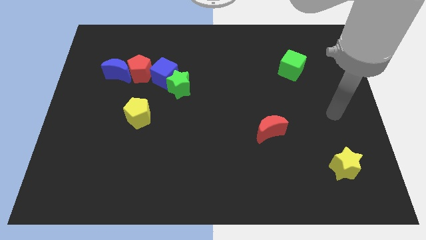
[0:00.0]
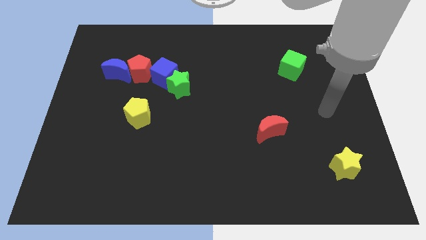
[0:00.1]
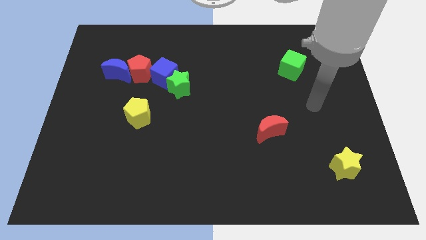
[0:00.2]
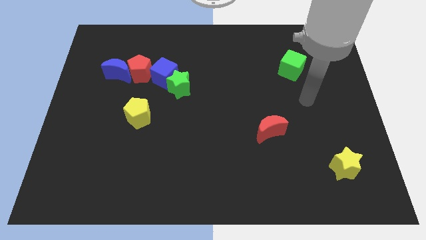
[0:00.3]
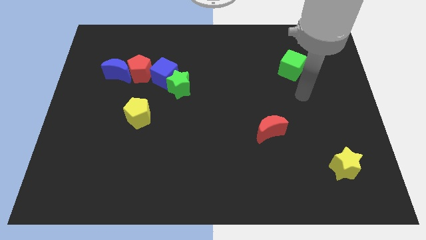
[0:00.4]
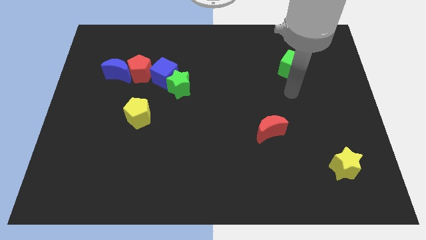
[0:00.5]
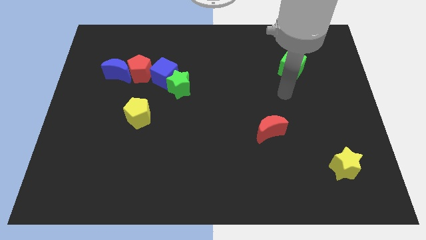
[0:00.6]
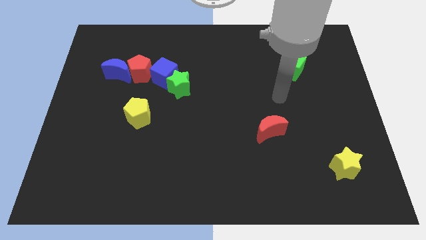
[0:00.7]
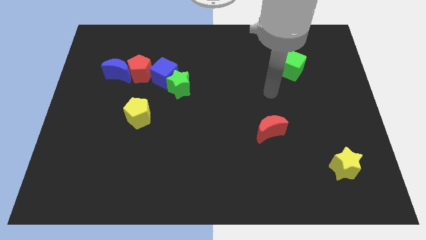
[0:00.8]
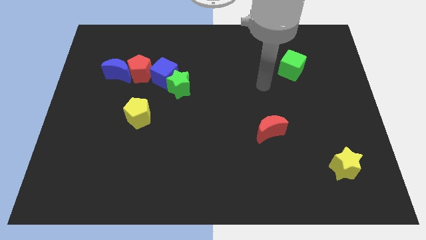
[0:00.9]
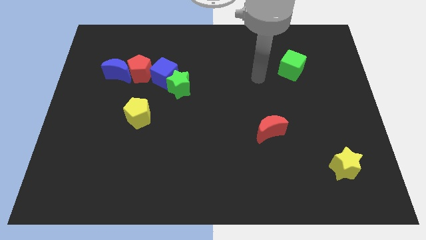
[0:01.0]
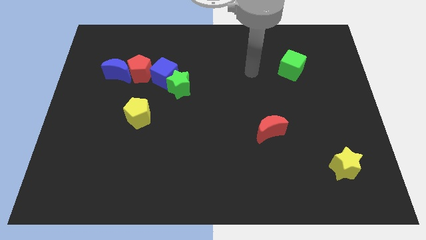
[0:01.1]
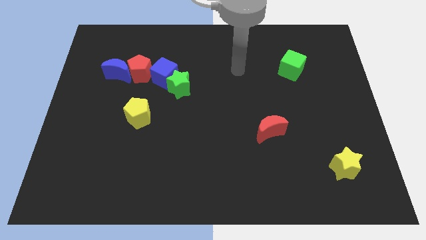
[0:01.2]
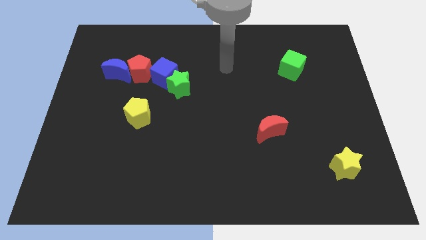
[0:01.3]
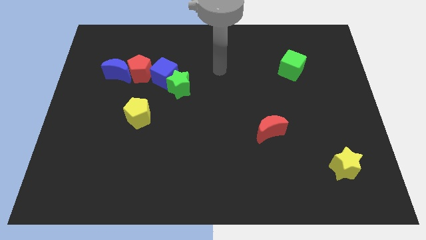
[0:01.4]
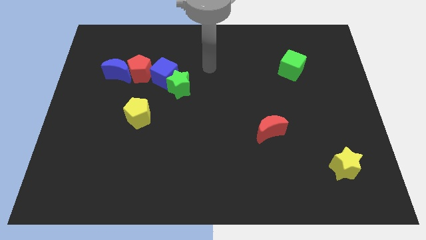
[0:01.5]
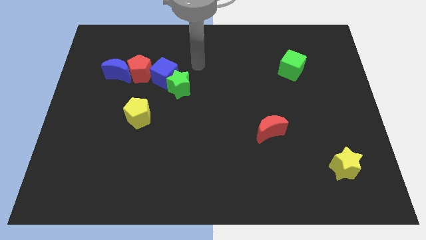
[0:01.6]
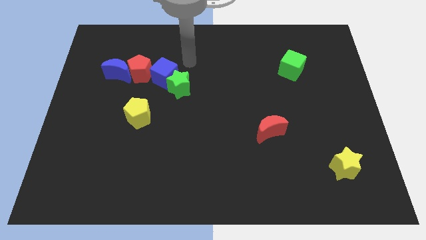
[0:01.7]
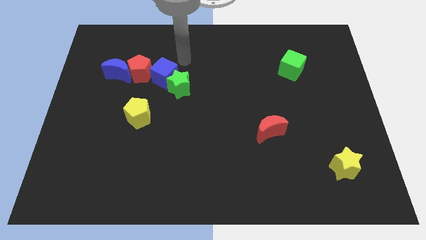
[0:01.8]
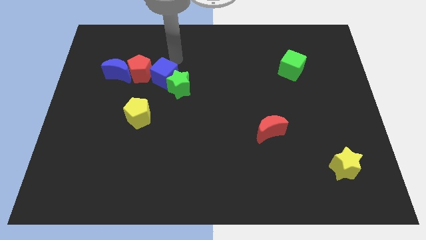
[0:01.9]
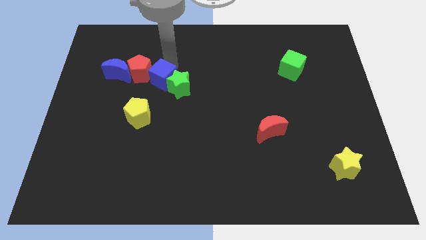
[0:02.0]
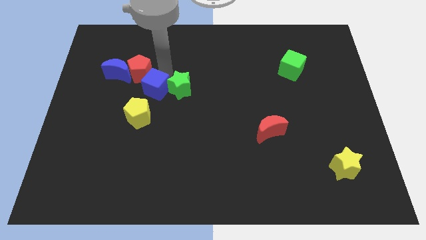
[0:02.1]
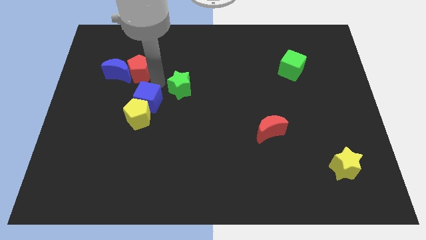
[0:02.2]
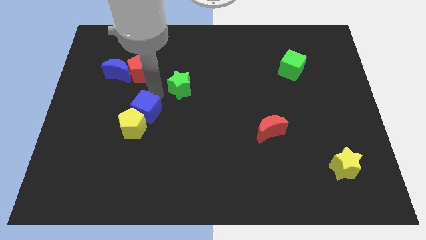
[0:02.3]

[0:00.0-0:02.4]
separate the green star from the blue cube

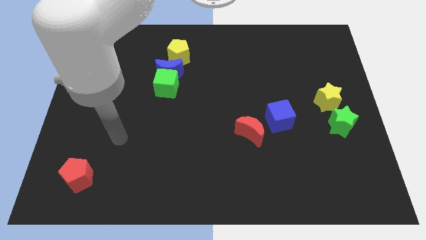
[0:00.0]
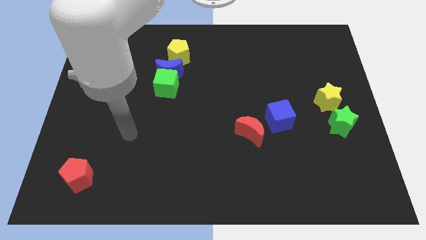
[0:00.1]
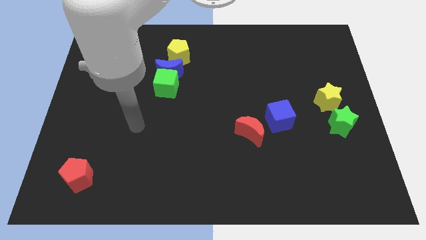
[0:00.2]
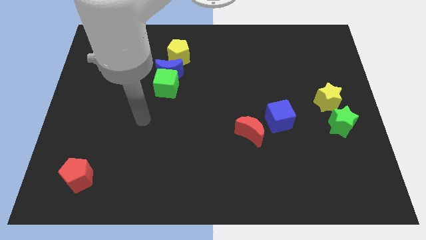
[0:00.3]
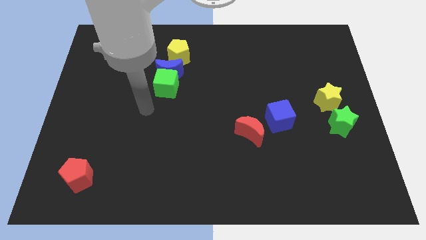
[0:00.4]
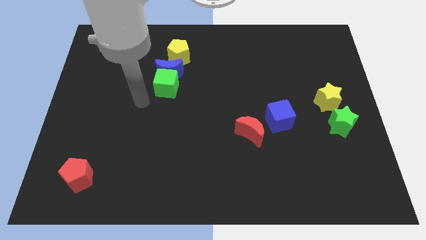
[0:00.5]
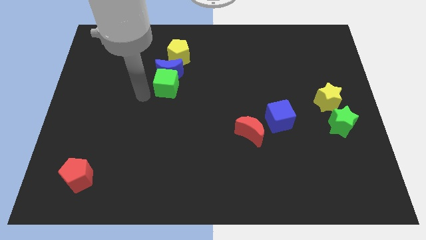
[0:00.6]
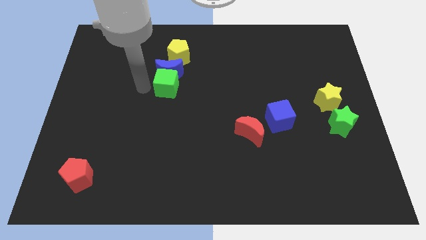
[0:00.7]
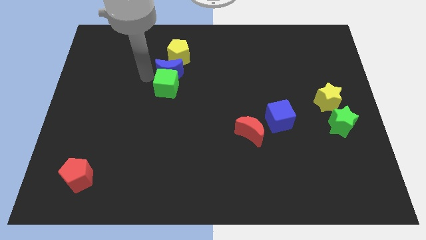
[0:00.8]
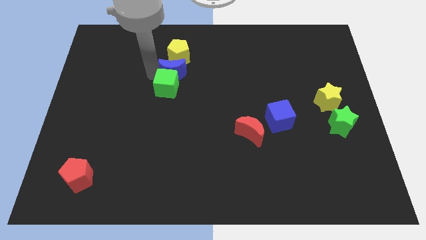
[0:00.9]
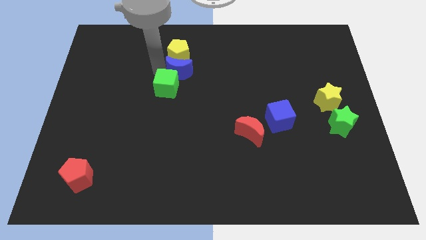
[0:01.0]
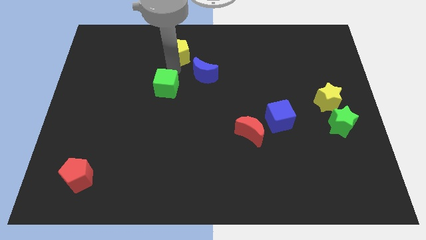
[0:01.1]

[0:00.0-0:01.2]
pull the green cube apart from the blue moon

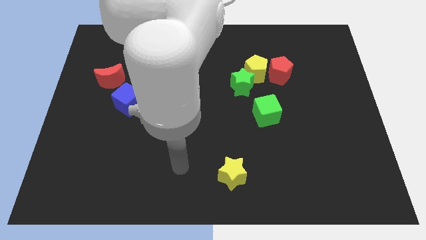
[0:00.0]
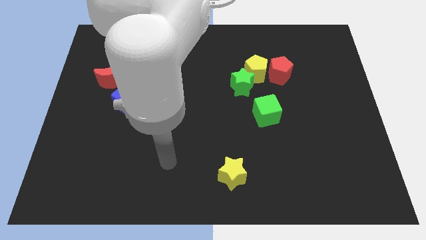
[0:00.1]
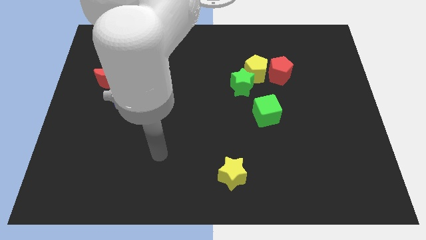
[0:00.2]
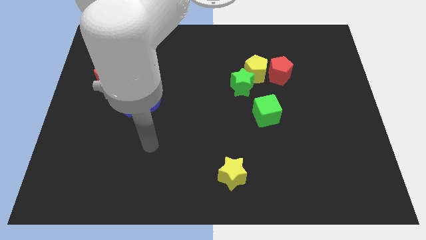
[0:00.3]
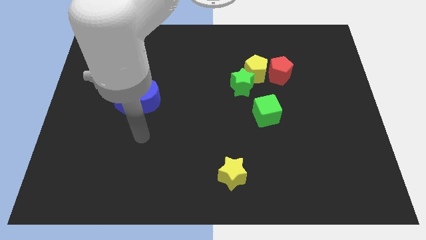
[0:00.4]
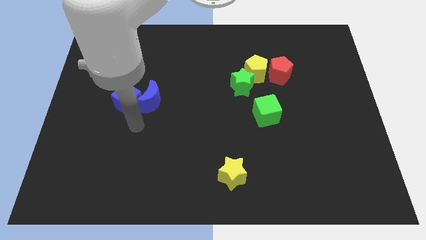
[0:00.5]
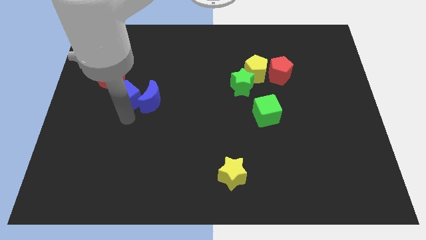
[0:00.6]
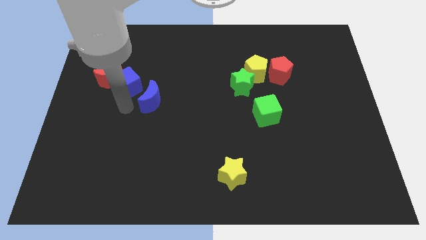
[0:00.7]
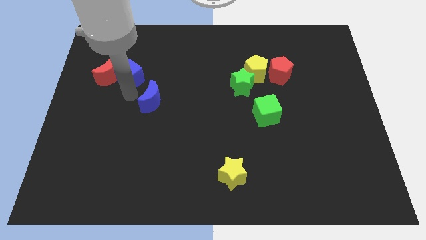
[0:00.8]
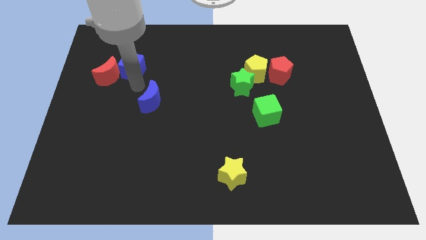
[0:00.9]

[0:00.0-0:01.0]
separate the blue moon from the blue cube

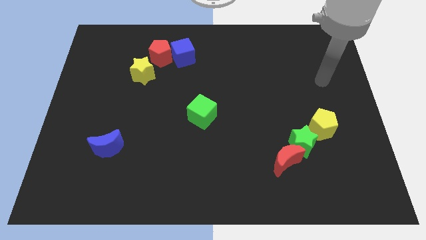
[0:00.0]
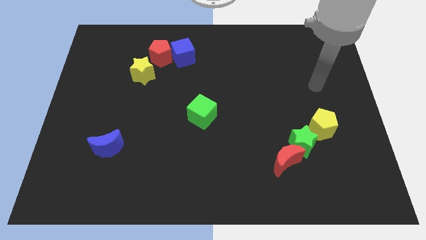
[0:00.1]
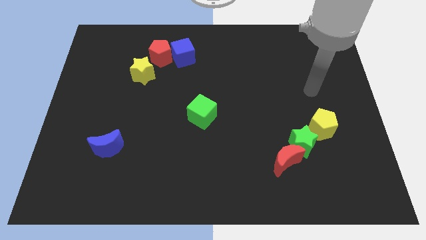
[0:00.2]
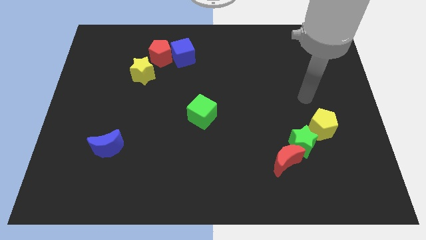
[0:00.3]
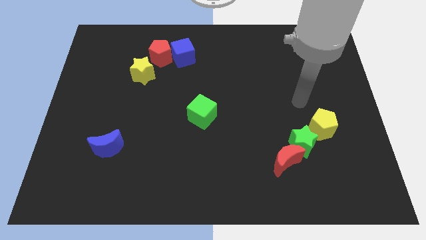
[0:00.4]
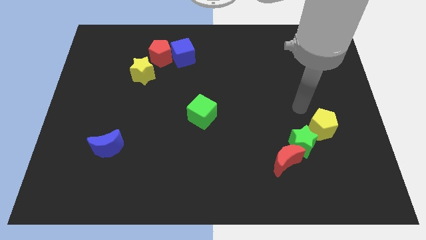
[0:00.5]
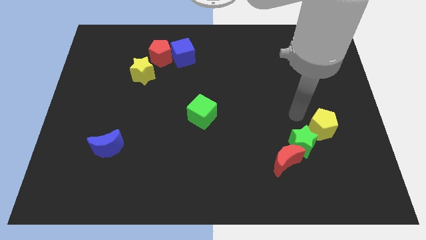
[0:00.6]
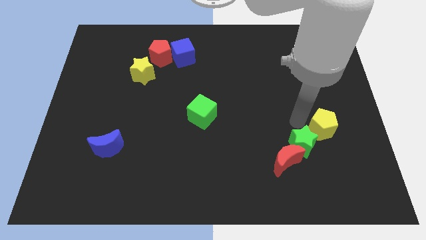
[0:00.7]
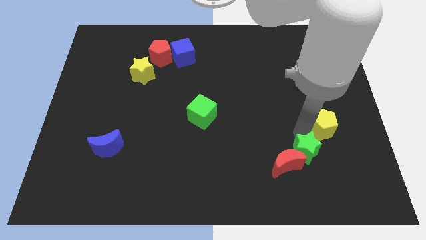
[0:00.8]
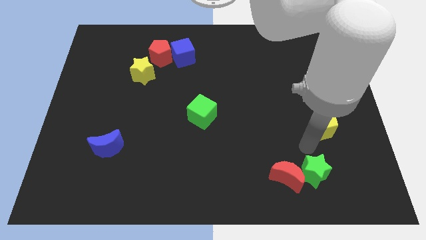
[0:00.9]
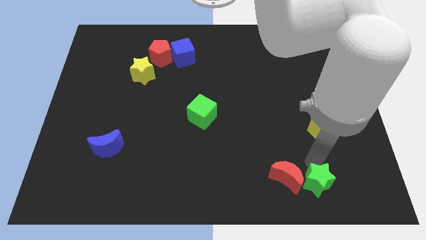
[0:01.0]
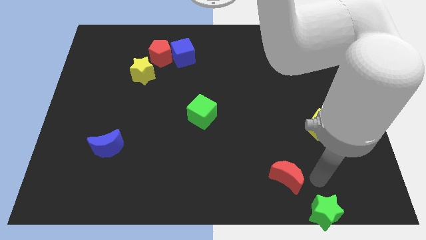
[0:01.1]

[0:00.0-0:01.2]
pull the red moon apart from the green star

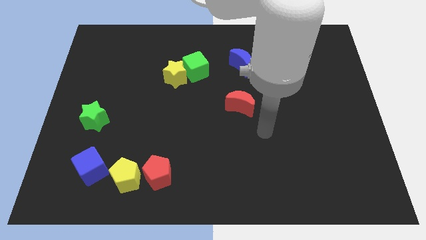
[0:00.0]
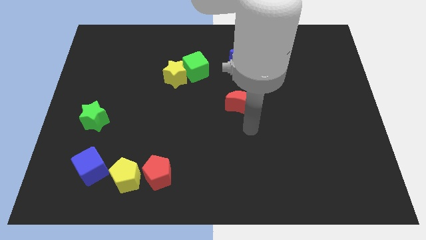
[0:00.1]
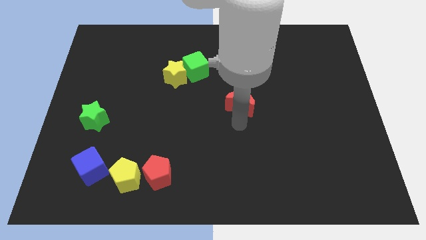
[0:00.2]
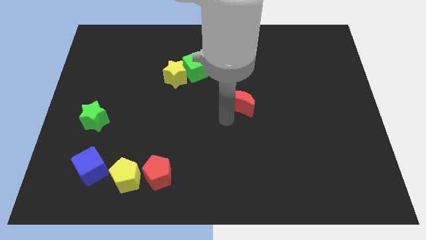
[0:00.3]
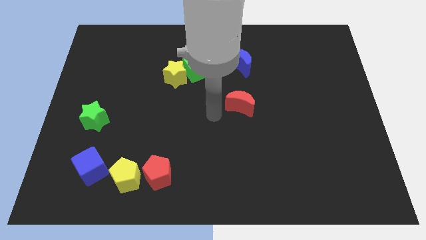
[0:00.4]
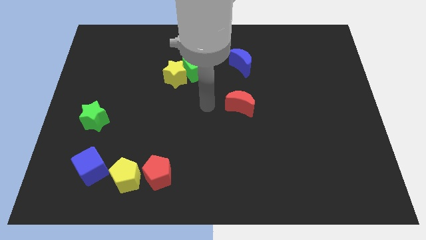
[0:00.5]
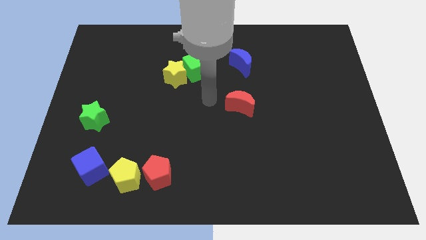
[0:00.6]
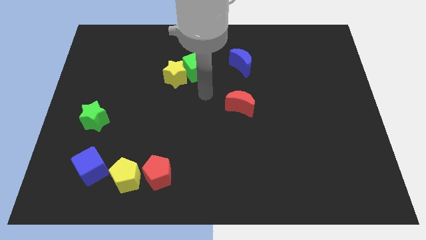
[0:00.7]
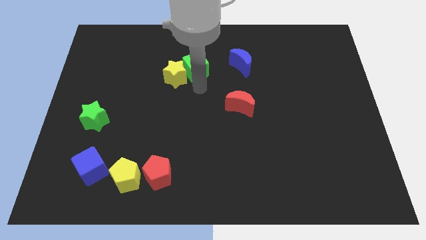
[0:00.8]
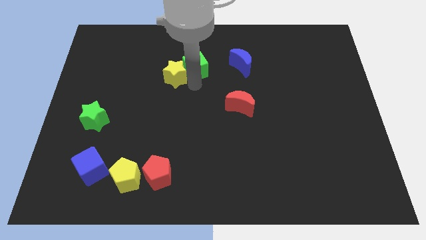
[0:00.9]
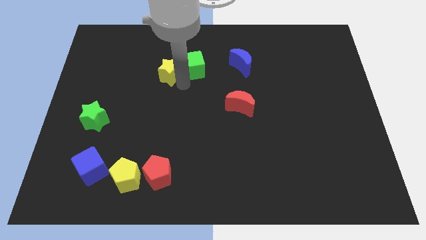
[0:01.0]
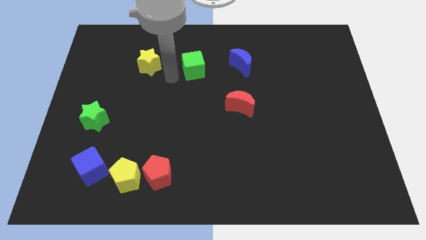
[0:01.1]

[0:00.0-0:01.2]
separate the green cube from the yellow star

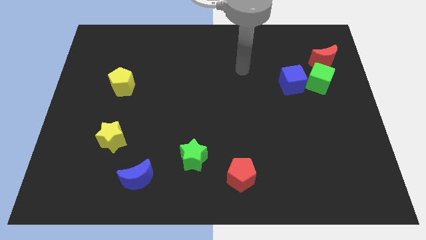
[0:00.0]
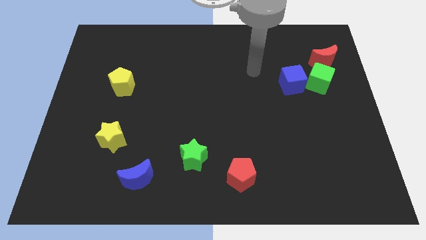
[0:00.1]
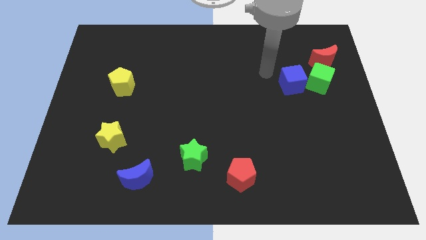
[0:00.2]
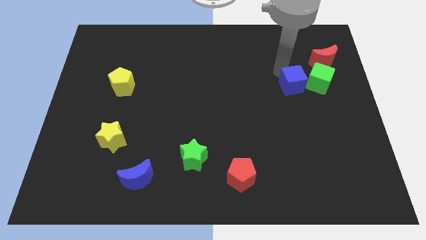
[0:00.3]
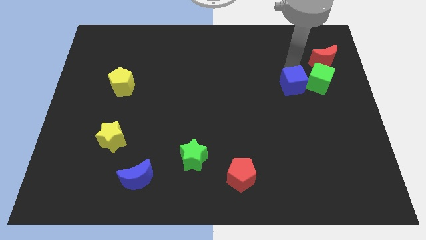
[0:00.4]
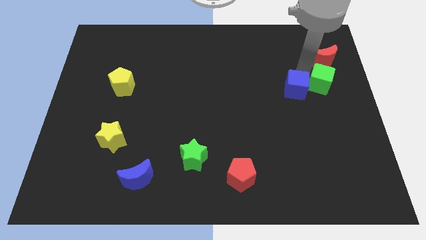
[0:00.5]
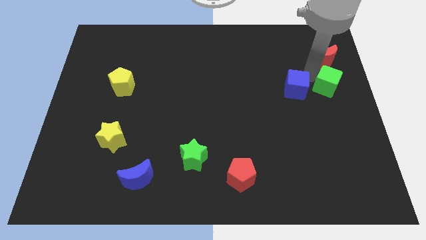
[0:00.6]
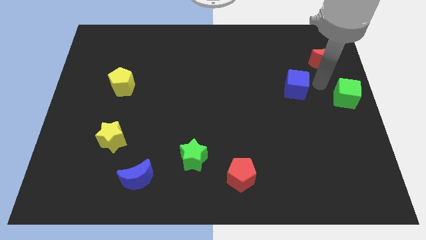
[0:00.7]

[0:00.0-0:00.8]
move the blue cube away from the green cube

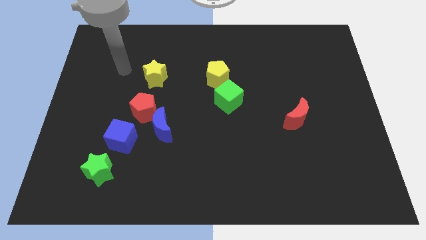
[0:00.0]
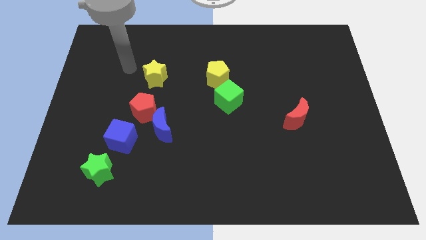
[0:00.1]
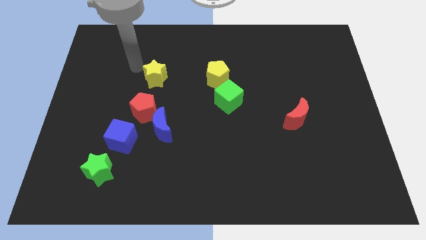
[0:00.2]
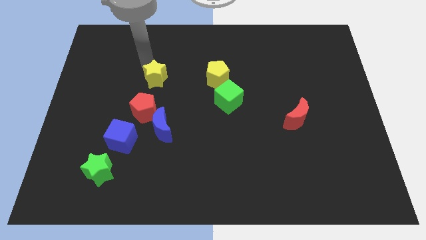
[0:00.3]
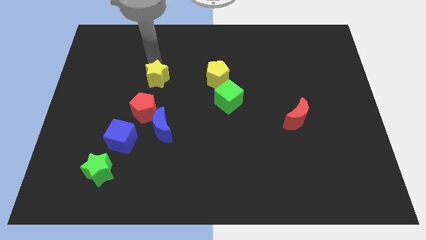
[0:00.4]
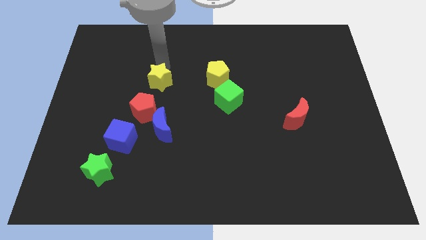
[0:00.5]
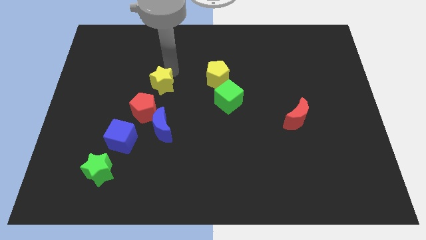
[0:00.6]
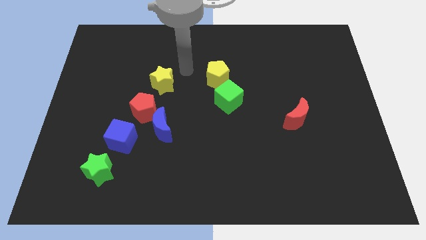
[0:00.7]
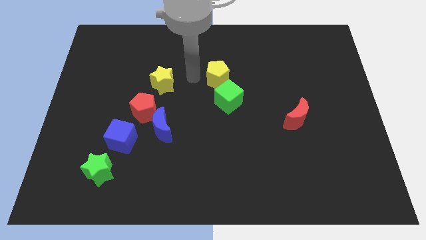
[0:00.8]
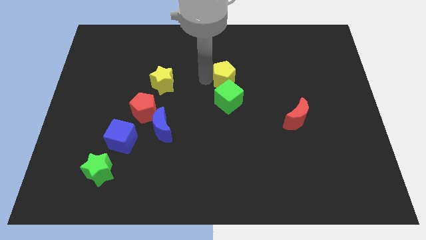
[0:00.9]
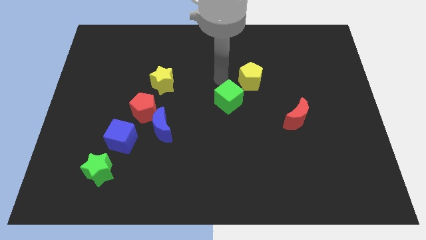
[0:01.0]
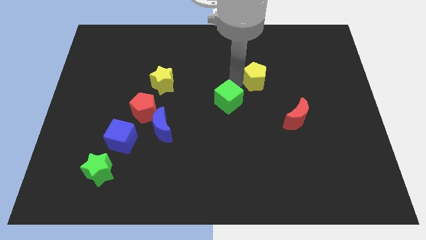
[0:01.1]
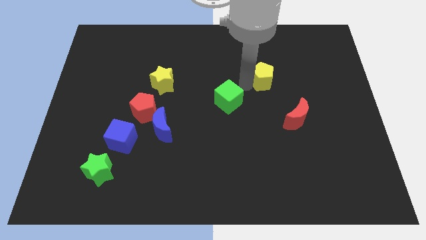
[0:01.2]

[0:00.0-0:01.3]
separate the green cube from the yellow pentagon
